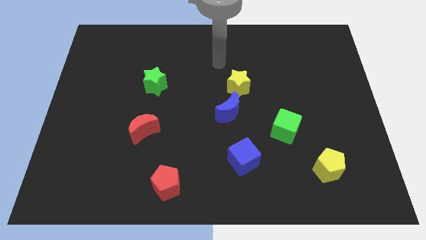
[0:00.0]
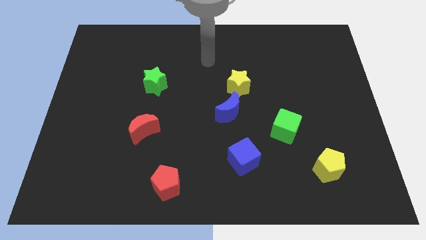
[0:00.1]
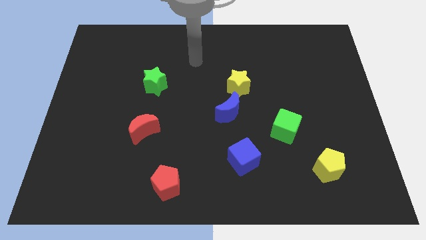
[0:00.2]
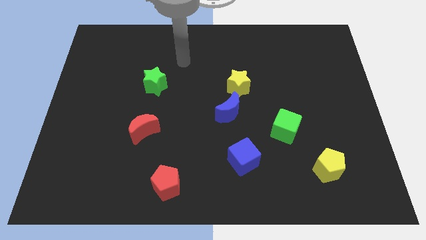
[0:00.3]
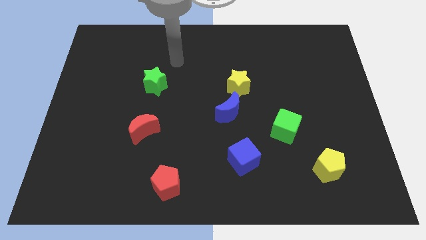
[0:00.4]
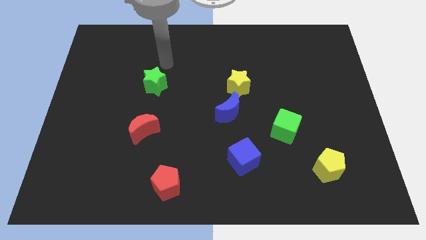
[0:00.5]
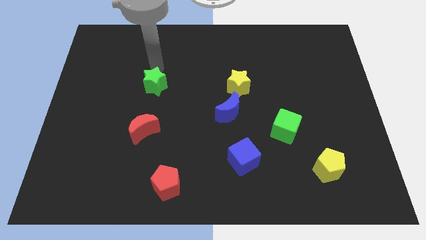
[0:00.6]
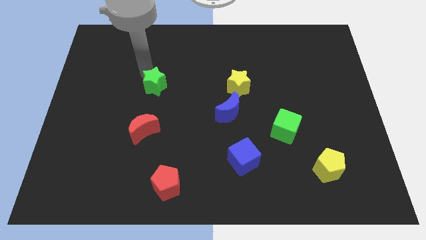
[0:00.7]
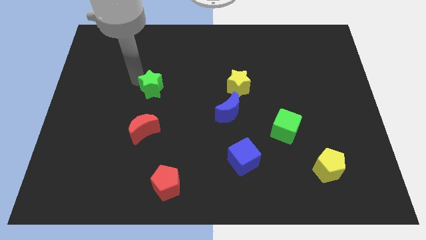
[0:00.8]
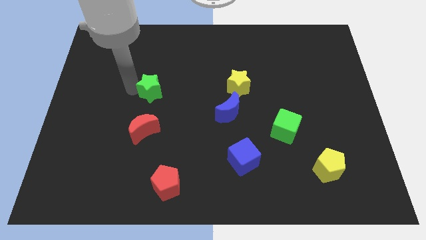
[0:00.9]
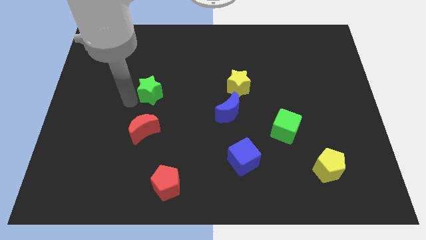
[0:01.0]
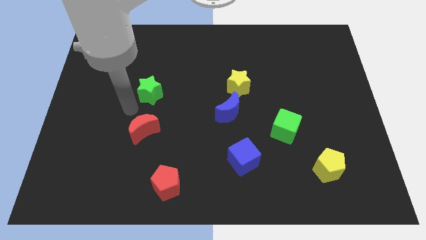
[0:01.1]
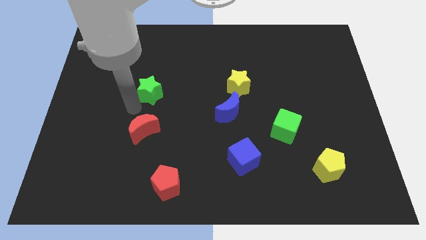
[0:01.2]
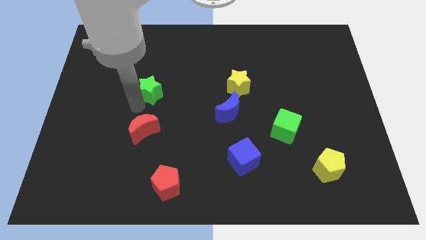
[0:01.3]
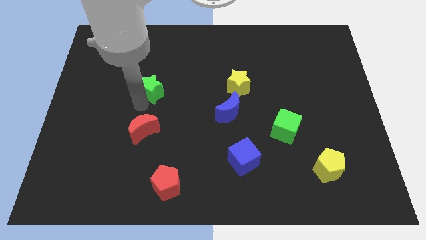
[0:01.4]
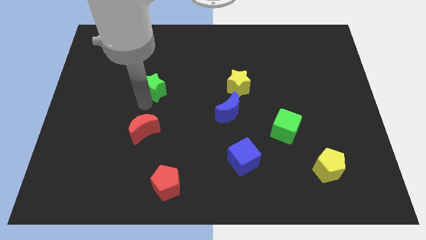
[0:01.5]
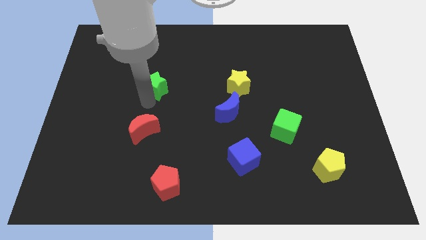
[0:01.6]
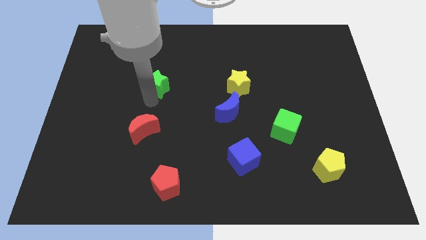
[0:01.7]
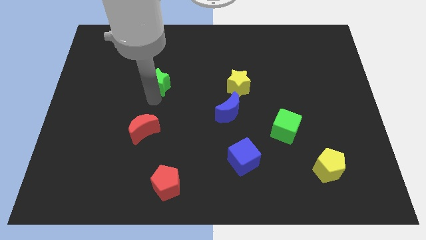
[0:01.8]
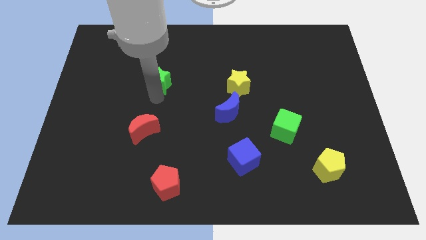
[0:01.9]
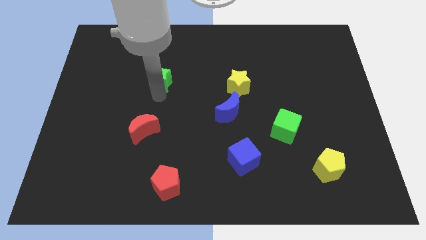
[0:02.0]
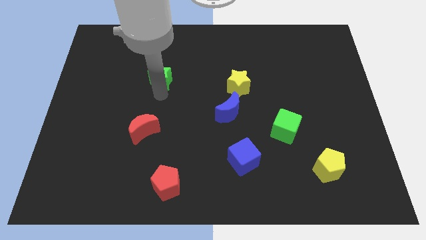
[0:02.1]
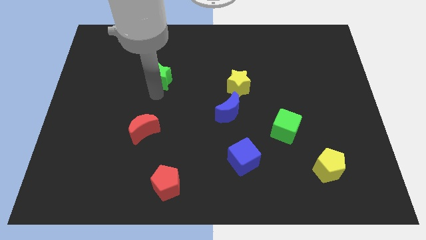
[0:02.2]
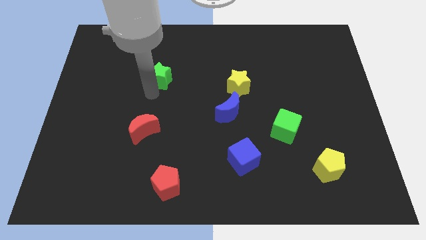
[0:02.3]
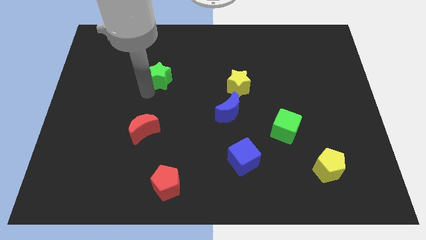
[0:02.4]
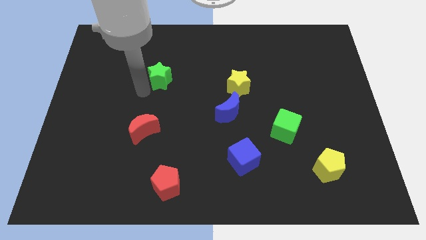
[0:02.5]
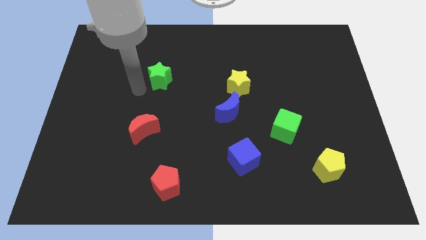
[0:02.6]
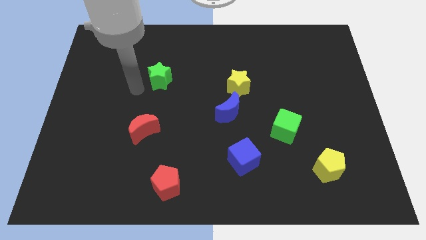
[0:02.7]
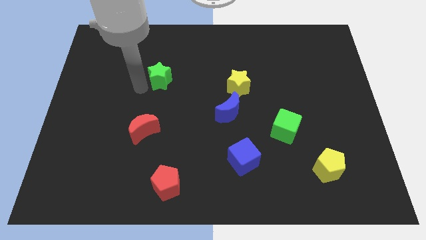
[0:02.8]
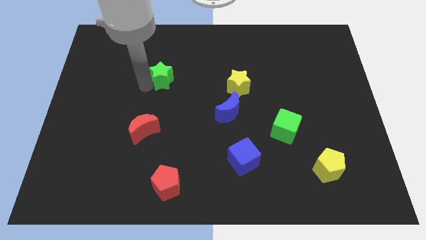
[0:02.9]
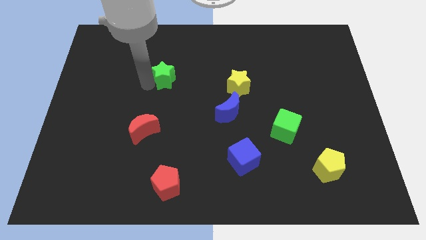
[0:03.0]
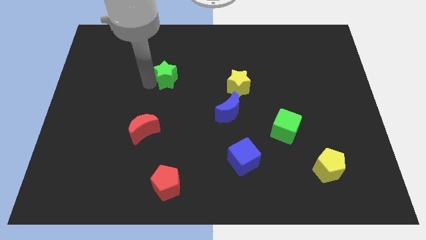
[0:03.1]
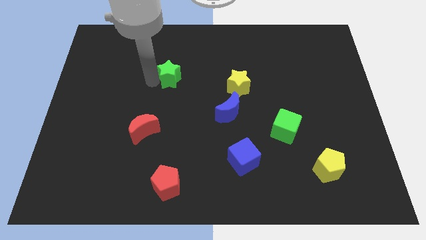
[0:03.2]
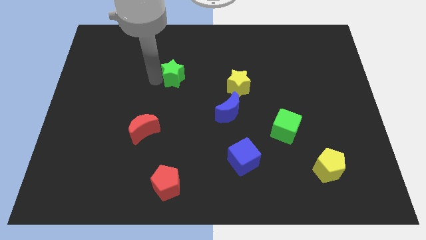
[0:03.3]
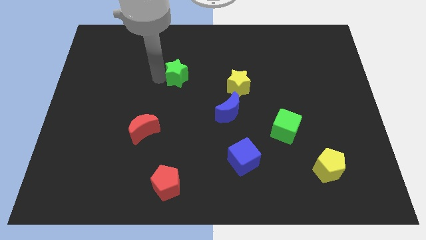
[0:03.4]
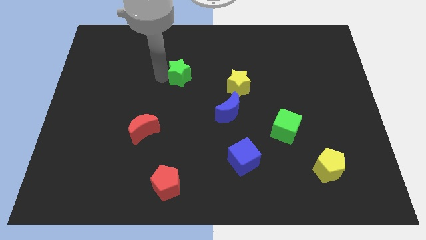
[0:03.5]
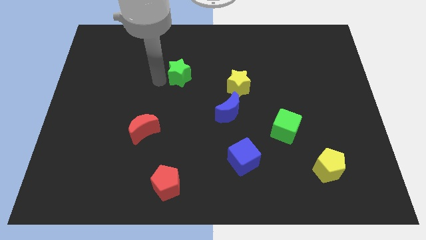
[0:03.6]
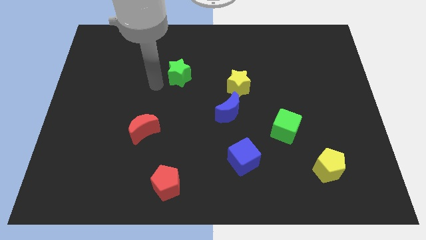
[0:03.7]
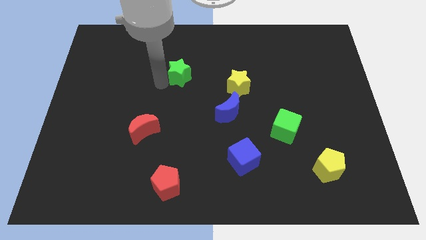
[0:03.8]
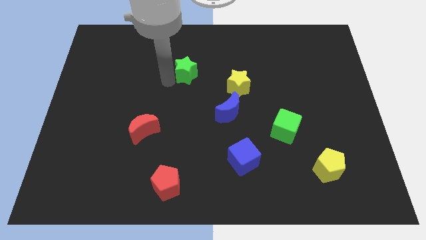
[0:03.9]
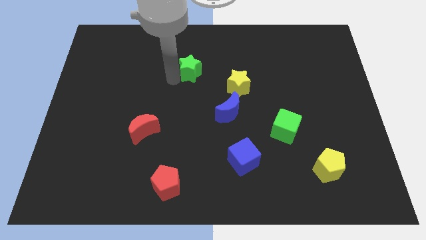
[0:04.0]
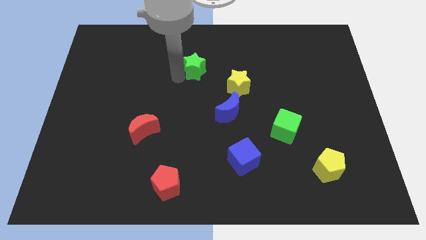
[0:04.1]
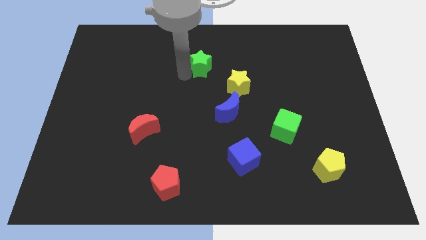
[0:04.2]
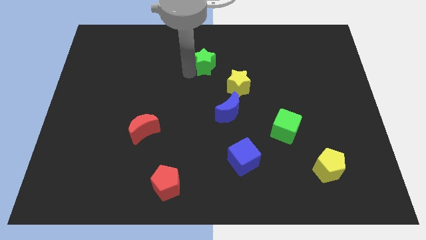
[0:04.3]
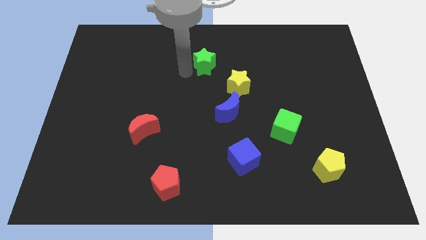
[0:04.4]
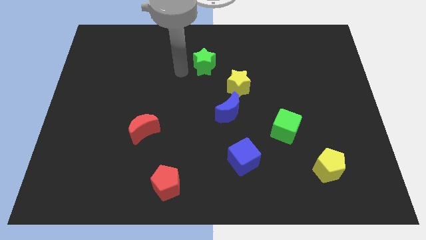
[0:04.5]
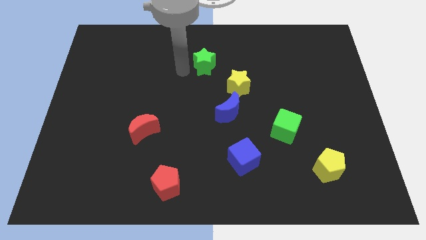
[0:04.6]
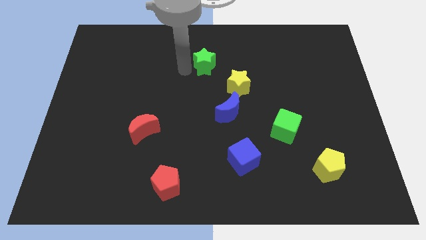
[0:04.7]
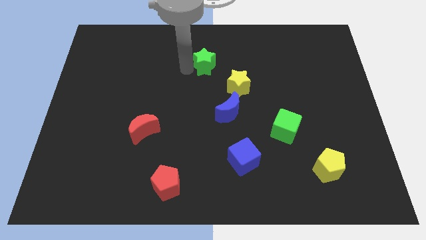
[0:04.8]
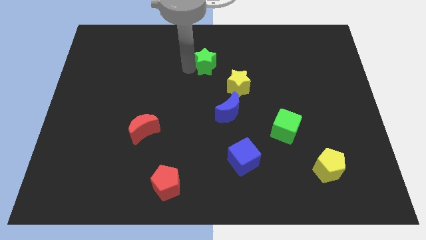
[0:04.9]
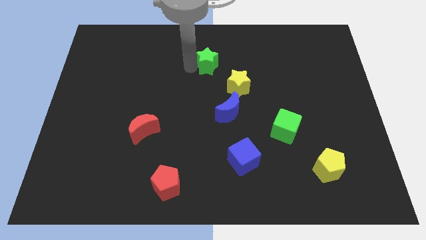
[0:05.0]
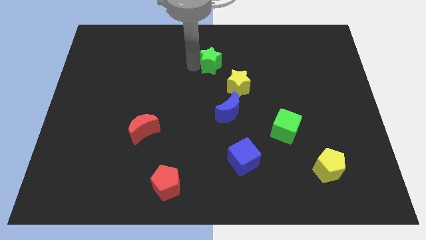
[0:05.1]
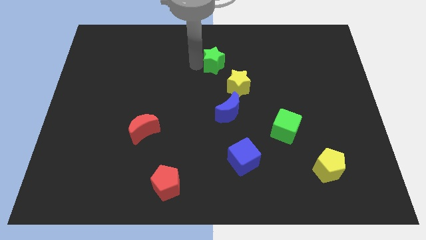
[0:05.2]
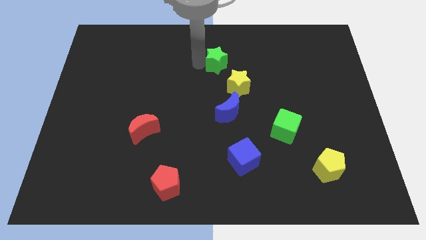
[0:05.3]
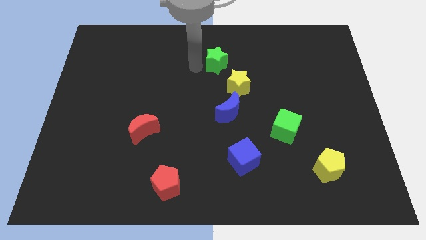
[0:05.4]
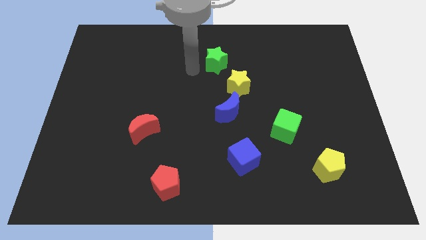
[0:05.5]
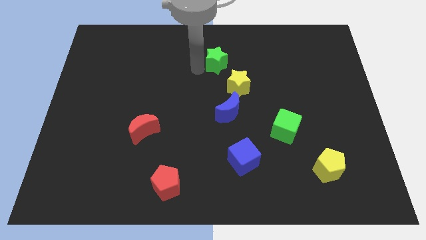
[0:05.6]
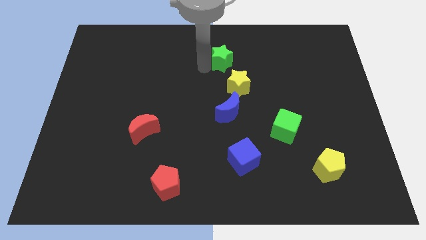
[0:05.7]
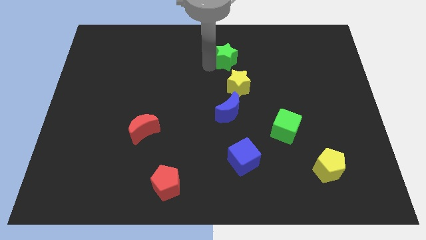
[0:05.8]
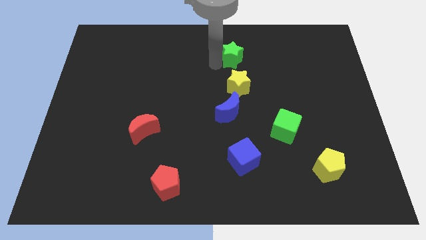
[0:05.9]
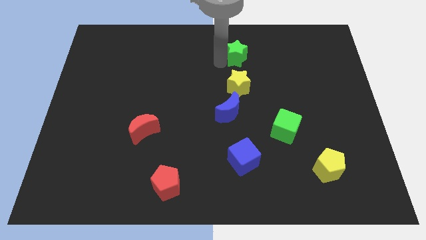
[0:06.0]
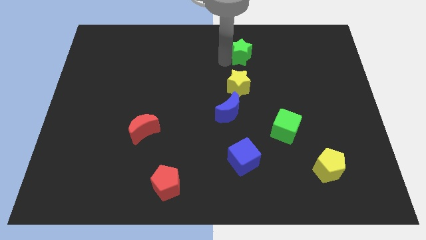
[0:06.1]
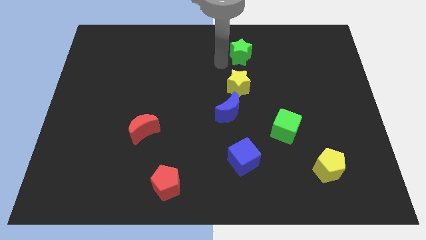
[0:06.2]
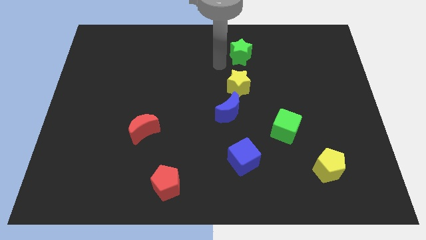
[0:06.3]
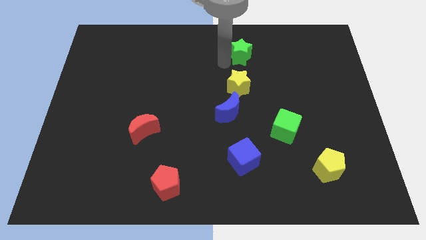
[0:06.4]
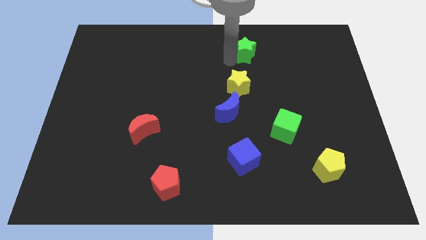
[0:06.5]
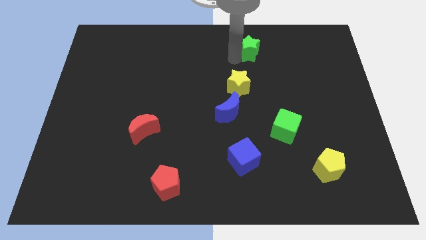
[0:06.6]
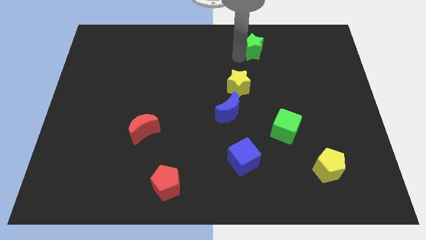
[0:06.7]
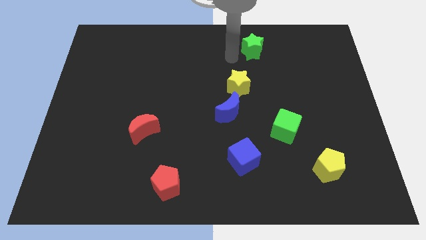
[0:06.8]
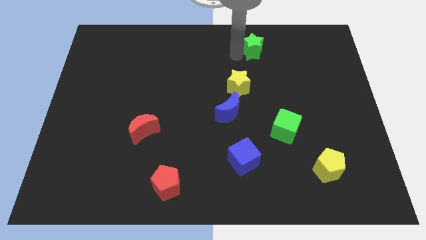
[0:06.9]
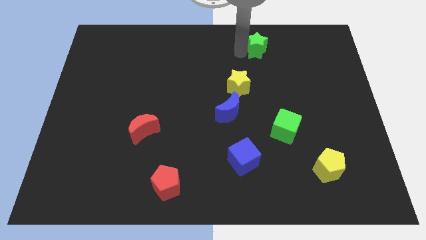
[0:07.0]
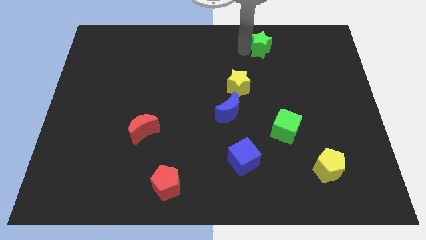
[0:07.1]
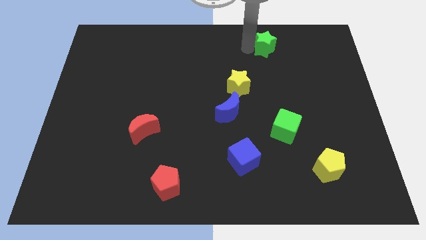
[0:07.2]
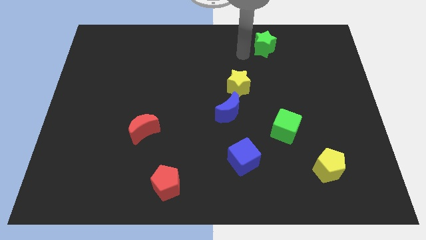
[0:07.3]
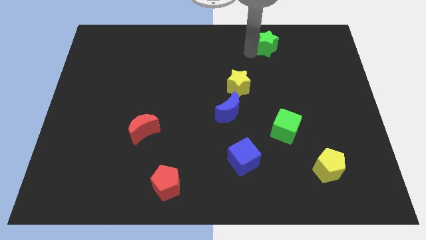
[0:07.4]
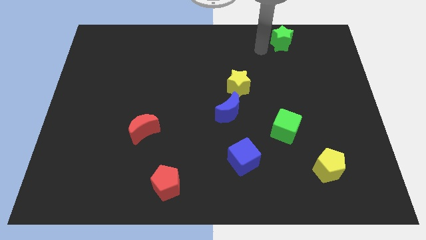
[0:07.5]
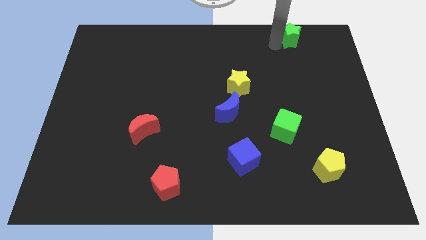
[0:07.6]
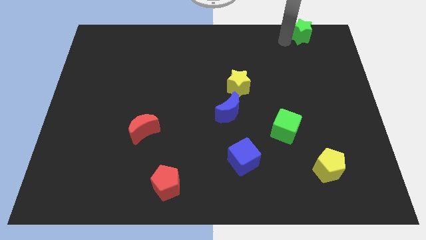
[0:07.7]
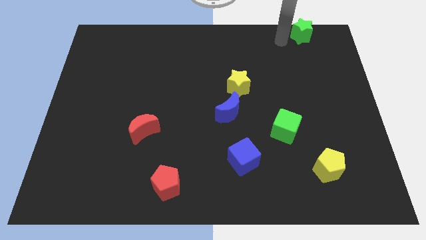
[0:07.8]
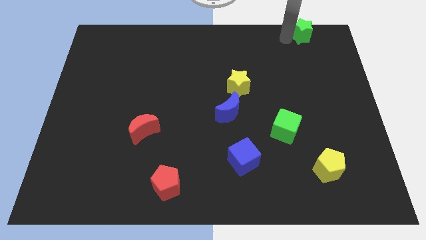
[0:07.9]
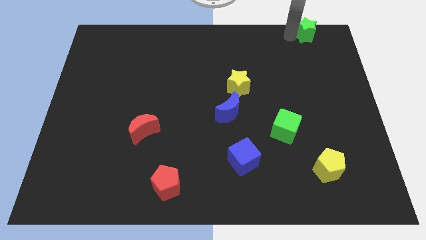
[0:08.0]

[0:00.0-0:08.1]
push the green star to the top right of the board
